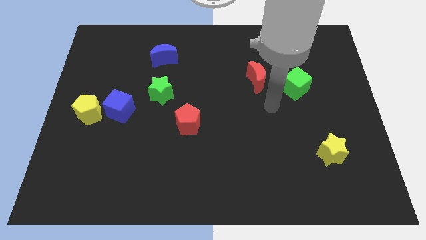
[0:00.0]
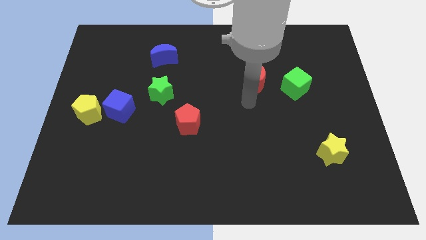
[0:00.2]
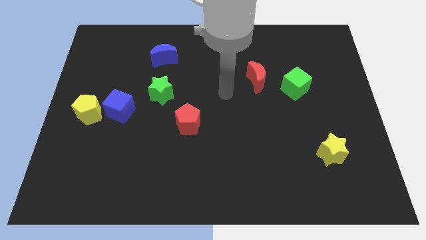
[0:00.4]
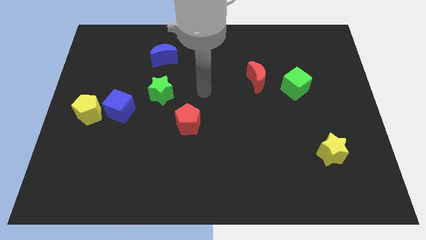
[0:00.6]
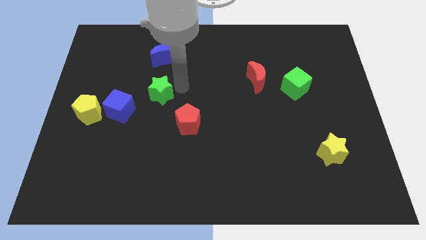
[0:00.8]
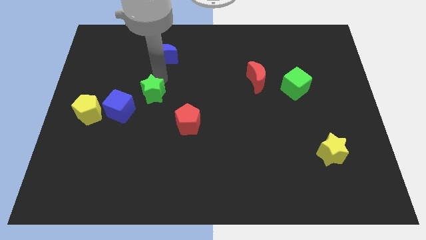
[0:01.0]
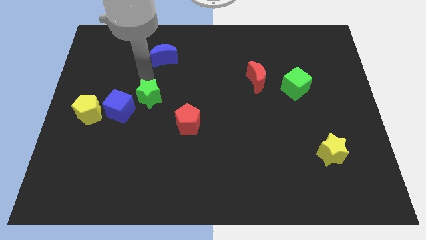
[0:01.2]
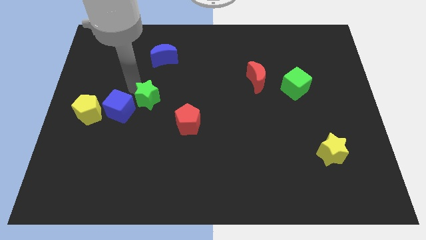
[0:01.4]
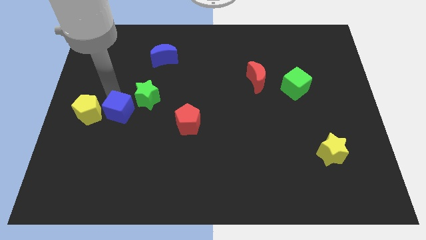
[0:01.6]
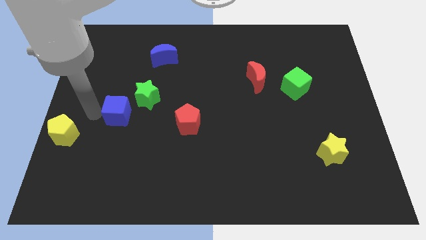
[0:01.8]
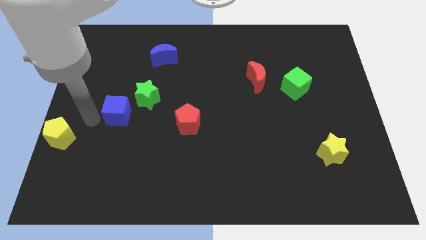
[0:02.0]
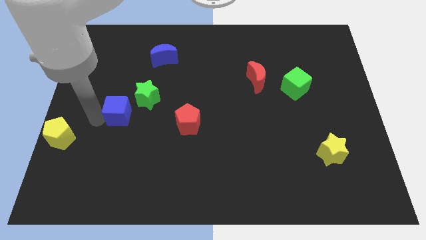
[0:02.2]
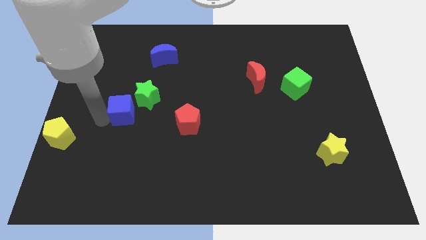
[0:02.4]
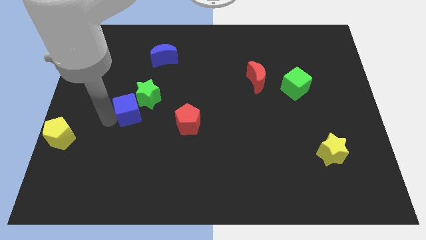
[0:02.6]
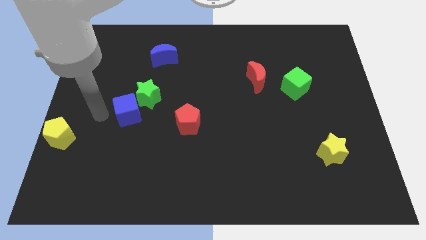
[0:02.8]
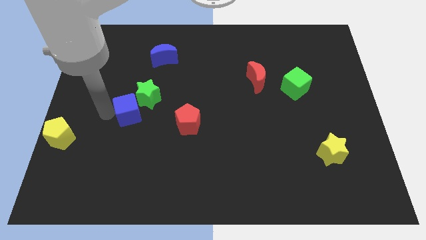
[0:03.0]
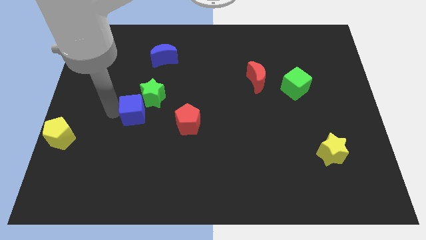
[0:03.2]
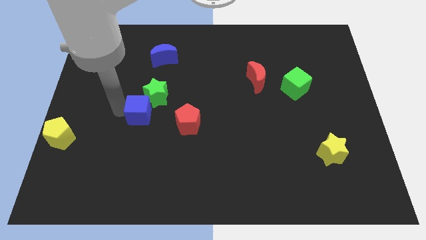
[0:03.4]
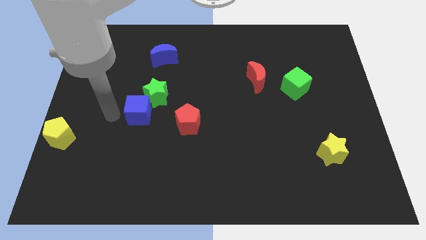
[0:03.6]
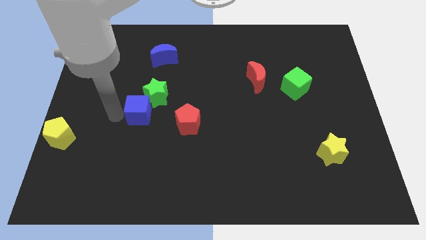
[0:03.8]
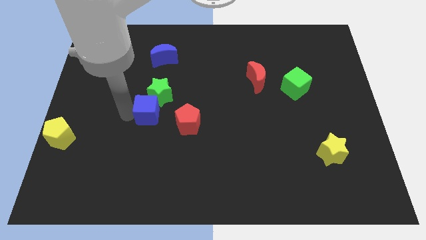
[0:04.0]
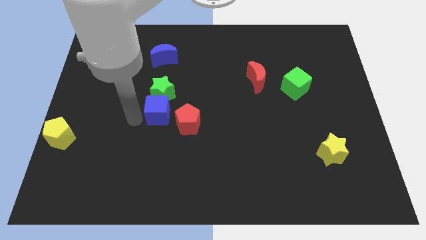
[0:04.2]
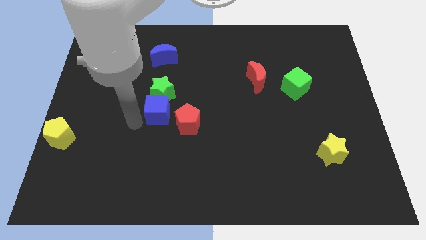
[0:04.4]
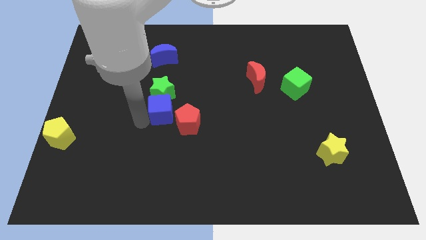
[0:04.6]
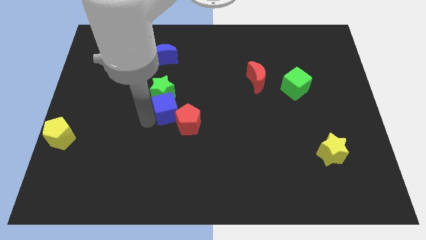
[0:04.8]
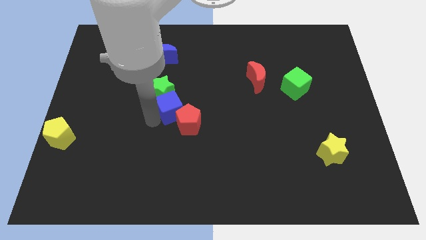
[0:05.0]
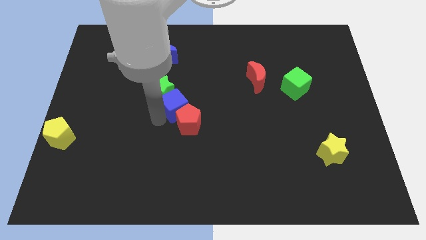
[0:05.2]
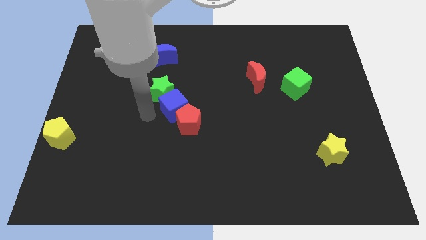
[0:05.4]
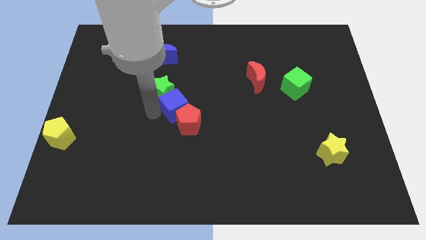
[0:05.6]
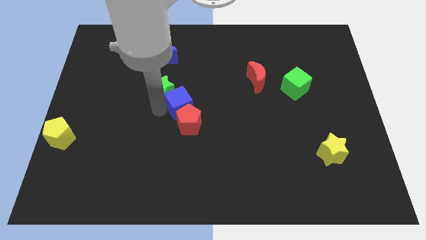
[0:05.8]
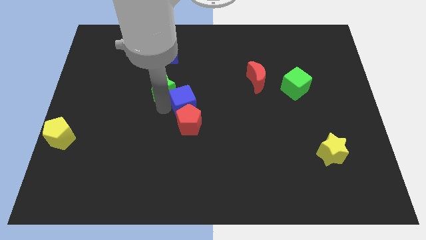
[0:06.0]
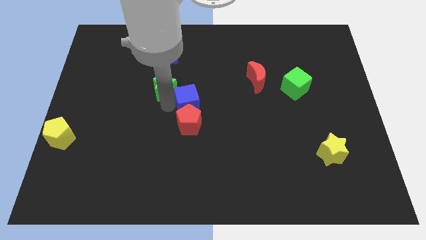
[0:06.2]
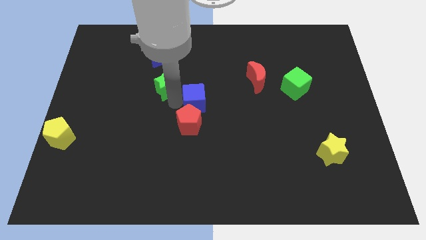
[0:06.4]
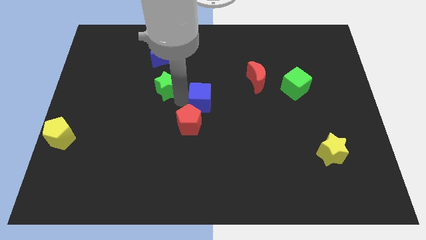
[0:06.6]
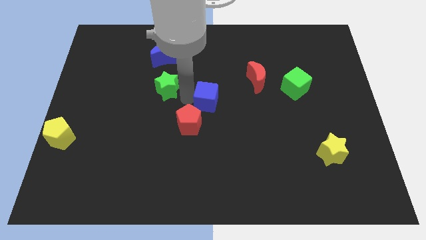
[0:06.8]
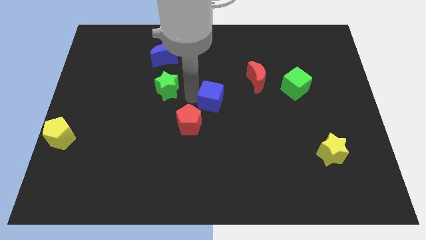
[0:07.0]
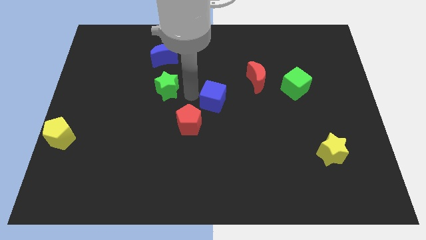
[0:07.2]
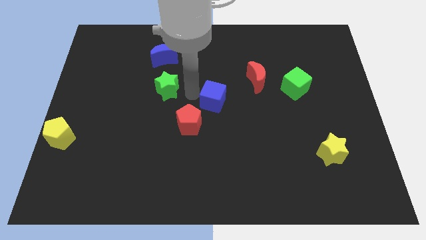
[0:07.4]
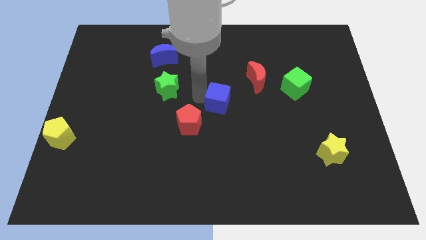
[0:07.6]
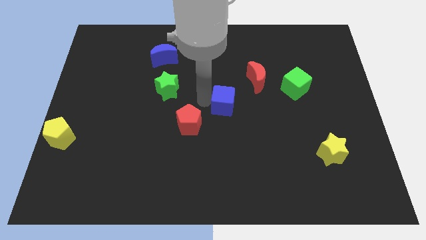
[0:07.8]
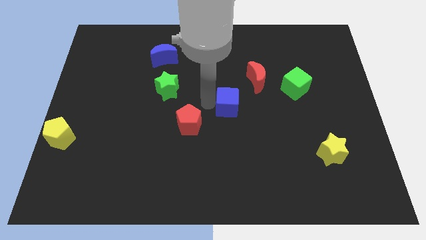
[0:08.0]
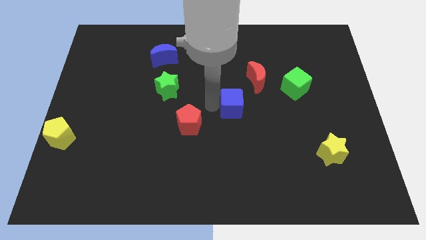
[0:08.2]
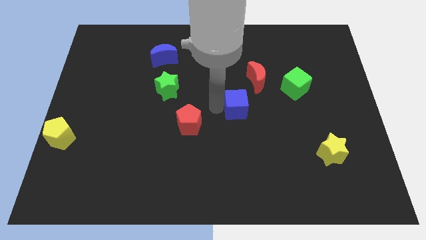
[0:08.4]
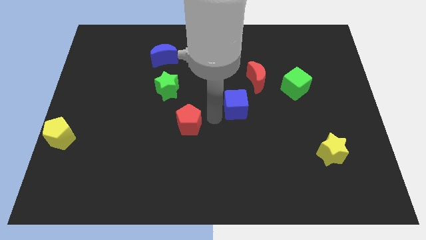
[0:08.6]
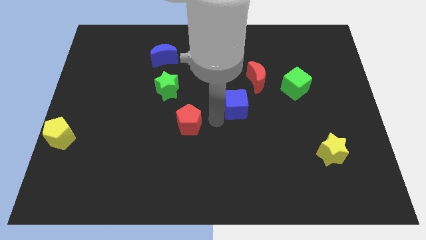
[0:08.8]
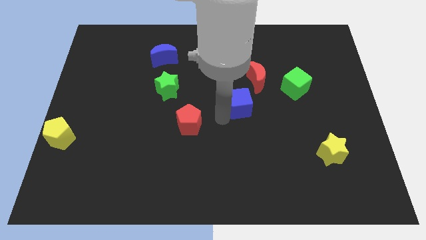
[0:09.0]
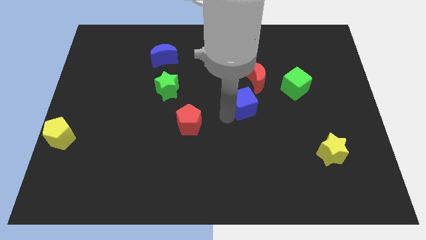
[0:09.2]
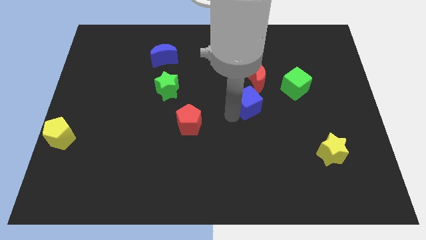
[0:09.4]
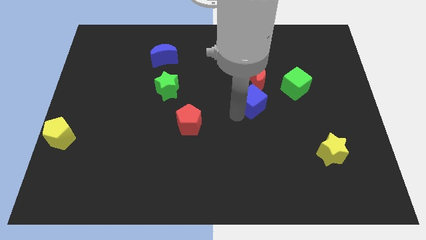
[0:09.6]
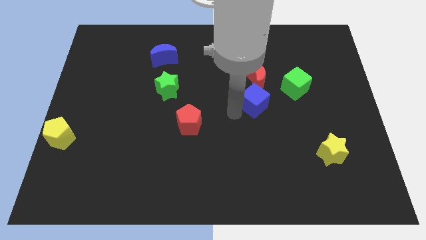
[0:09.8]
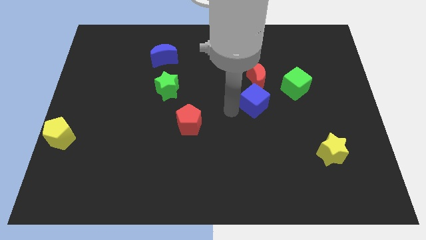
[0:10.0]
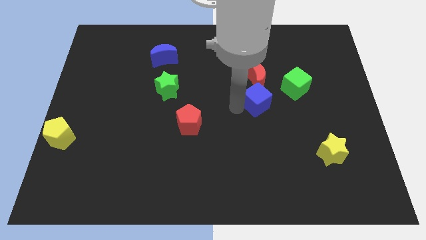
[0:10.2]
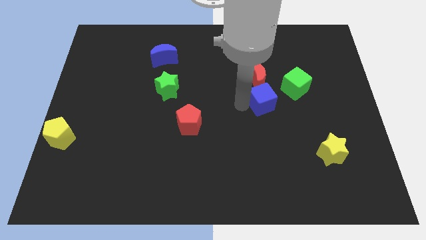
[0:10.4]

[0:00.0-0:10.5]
slide the blue cube diagonally down and to the right of the red moon

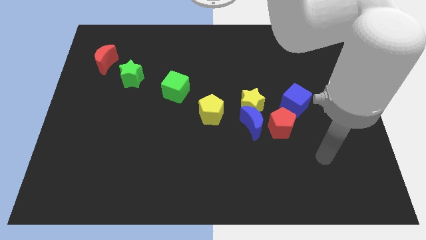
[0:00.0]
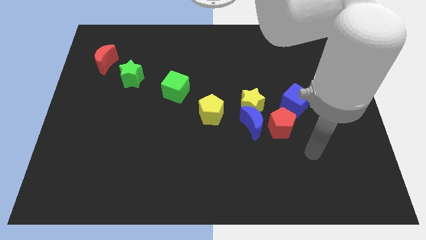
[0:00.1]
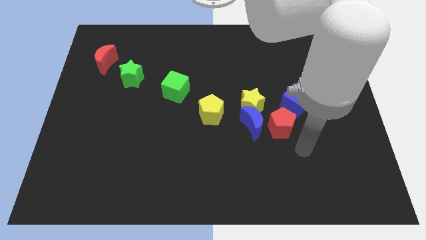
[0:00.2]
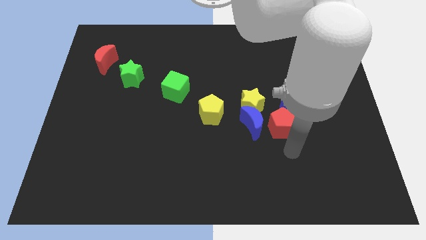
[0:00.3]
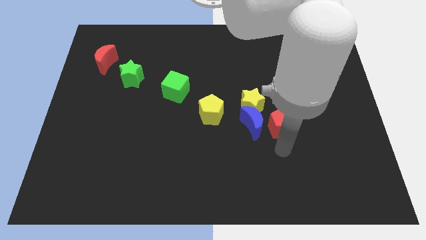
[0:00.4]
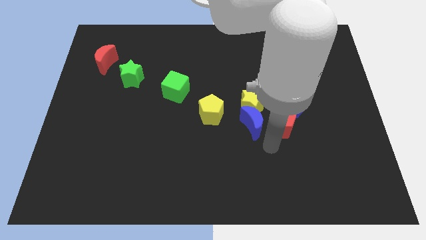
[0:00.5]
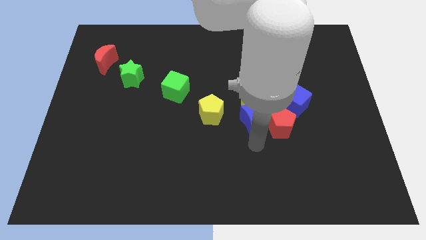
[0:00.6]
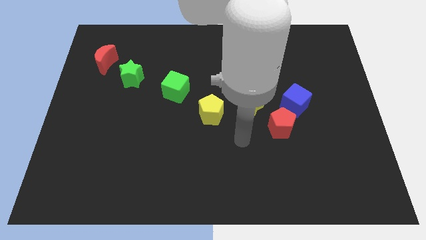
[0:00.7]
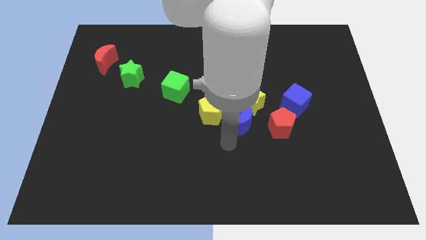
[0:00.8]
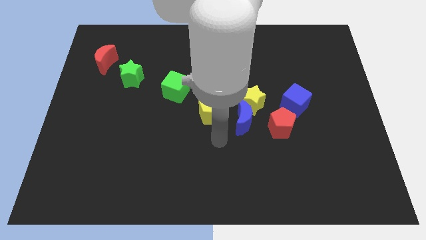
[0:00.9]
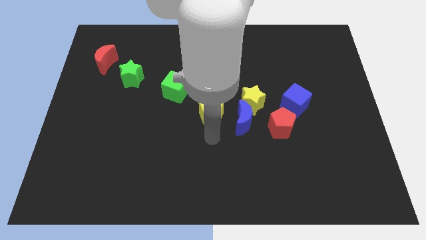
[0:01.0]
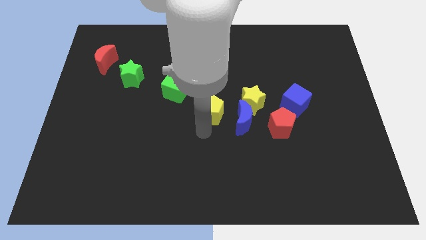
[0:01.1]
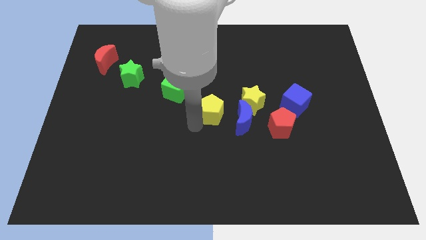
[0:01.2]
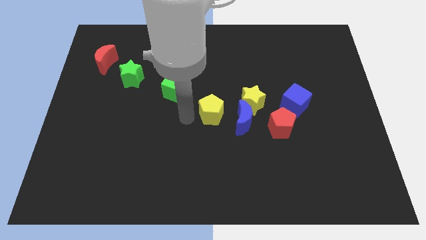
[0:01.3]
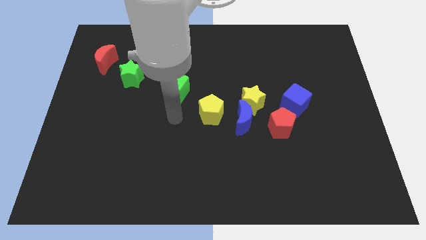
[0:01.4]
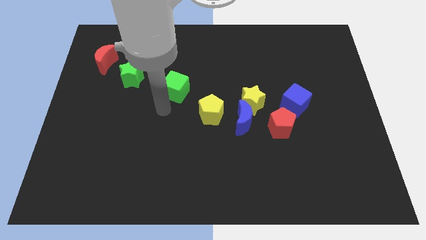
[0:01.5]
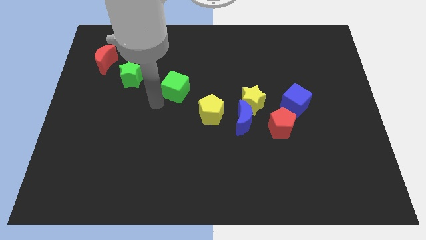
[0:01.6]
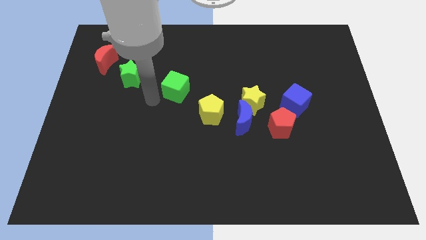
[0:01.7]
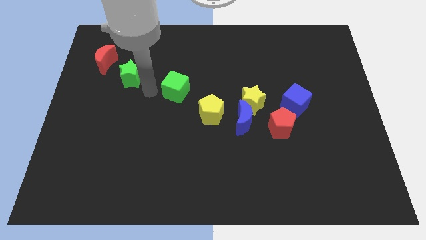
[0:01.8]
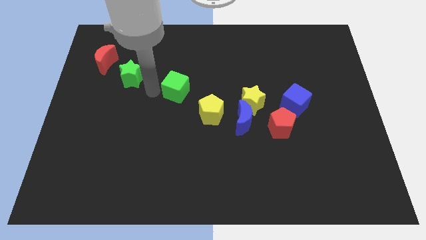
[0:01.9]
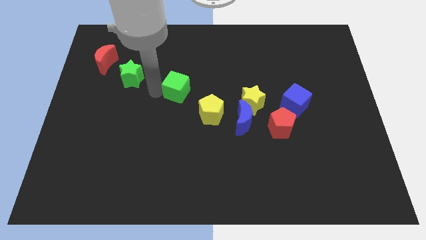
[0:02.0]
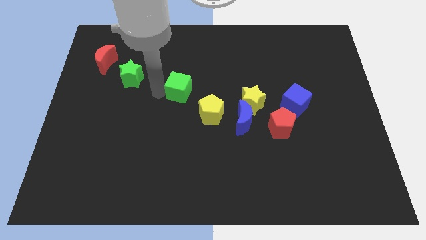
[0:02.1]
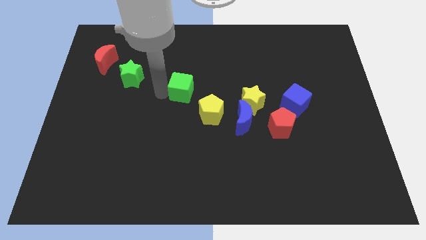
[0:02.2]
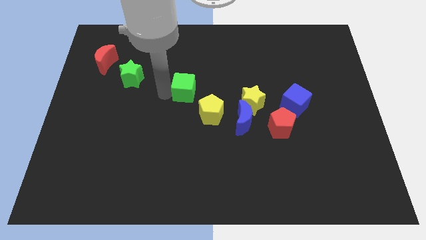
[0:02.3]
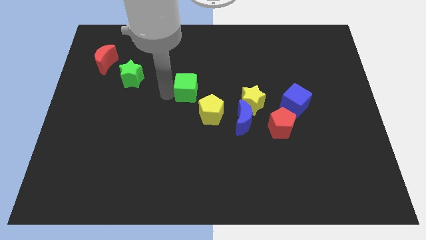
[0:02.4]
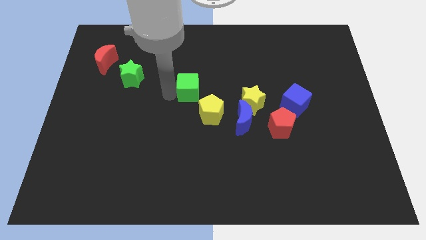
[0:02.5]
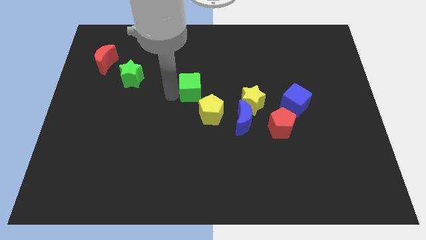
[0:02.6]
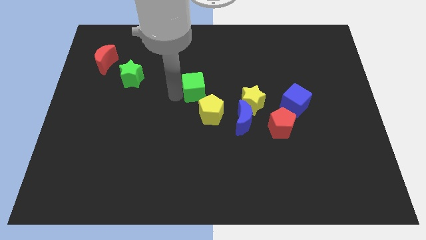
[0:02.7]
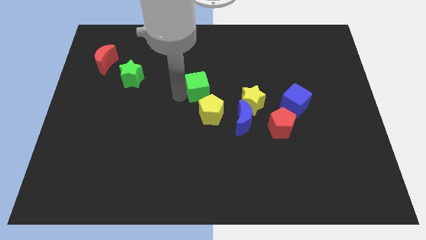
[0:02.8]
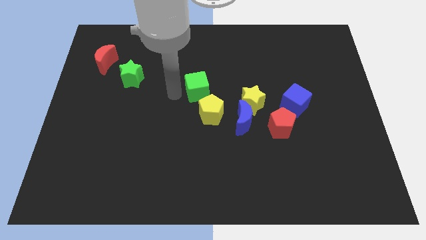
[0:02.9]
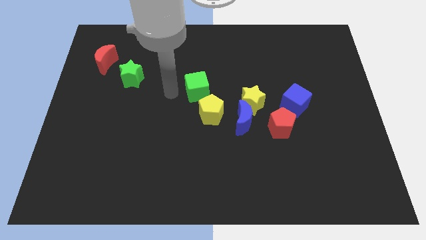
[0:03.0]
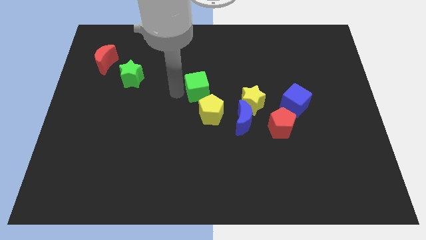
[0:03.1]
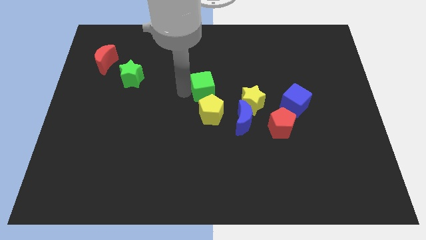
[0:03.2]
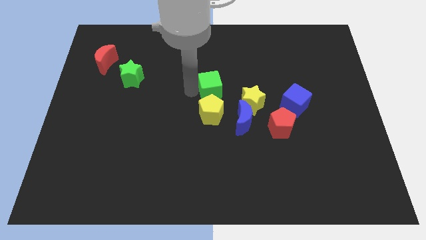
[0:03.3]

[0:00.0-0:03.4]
push the green cube to the top left side of the yellow star
